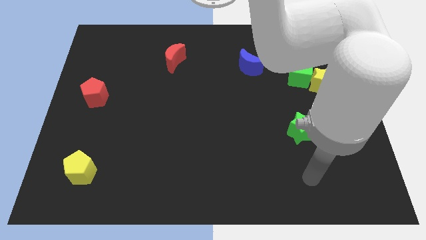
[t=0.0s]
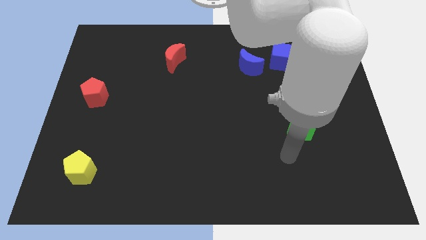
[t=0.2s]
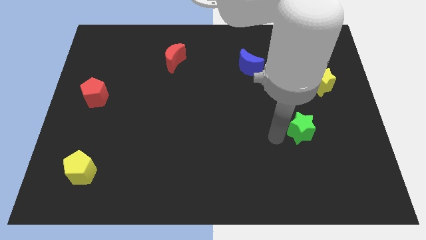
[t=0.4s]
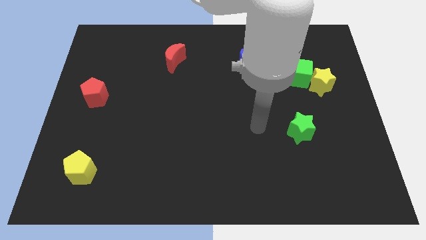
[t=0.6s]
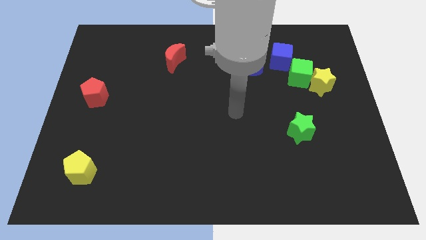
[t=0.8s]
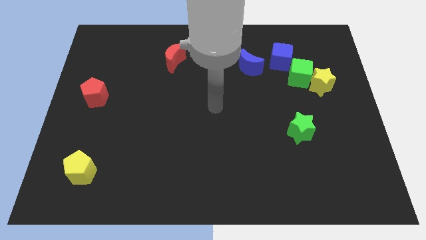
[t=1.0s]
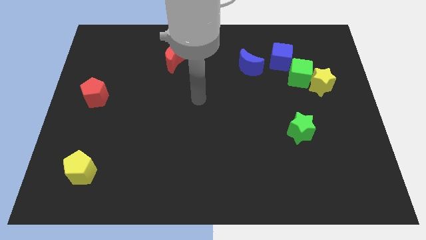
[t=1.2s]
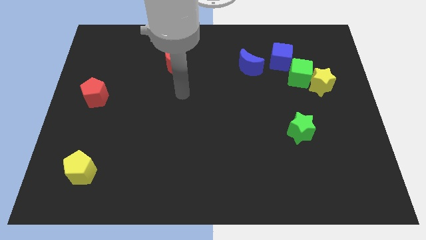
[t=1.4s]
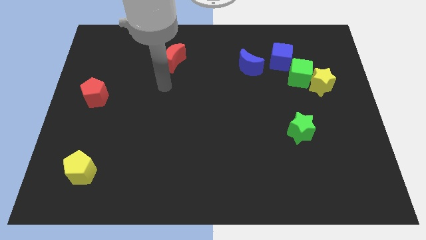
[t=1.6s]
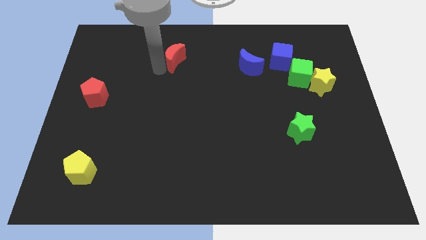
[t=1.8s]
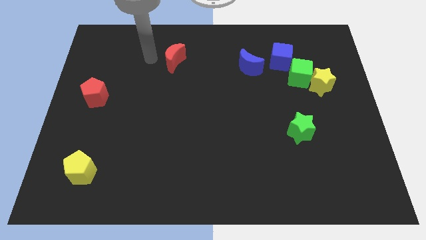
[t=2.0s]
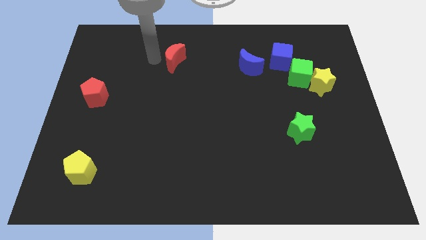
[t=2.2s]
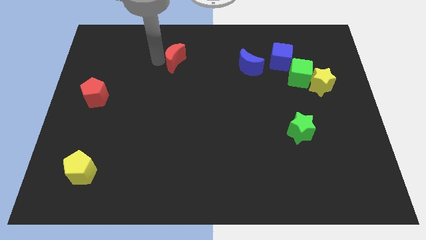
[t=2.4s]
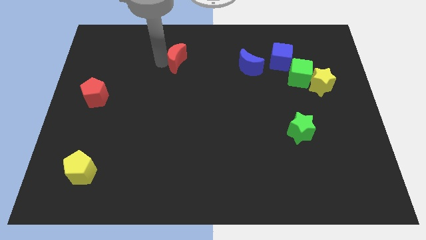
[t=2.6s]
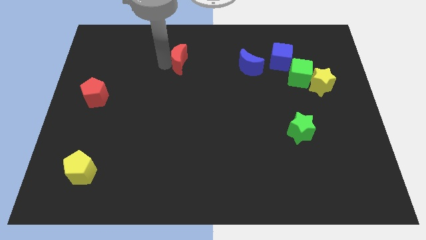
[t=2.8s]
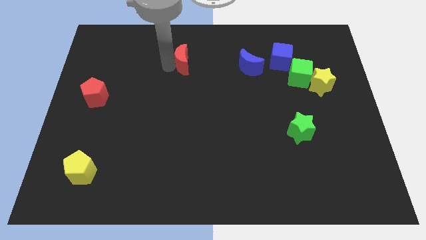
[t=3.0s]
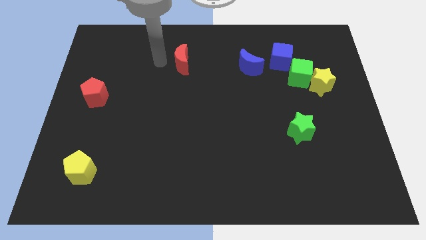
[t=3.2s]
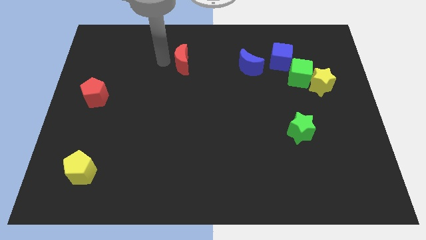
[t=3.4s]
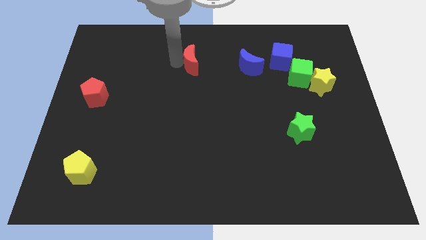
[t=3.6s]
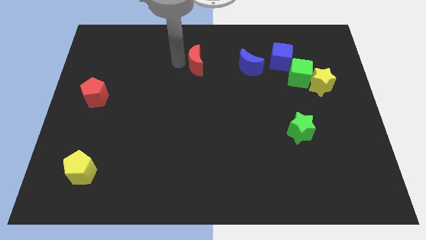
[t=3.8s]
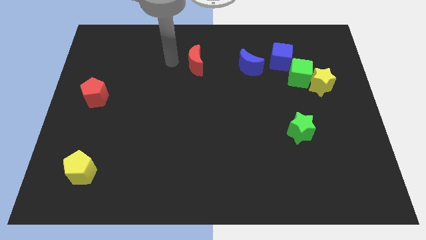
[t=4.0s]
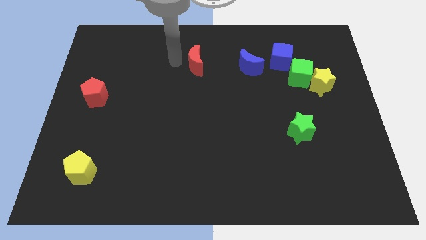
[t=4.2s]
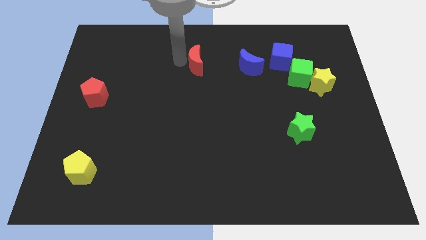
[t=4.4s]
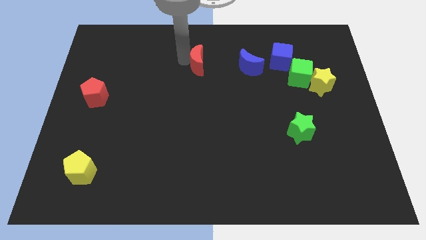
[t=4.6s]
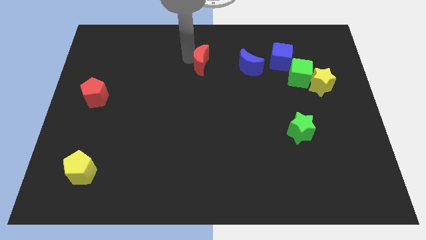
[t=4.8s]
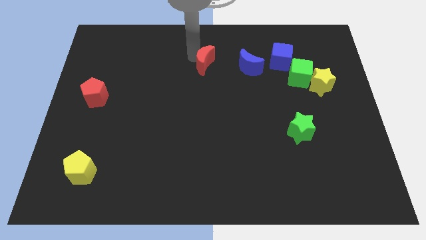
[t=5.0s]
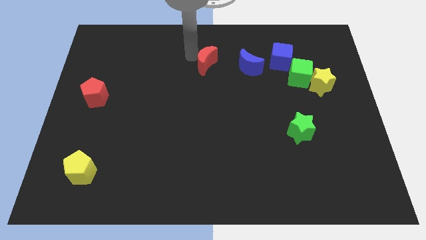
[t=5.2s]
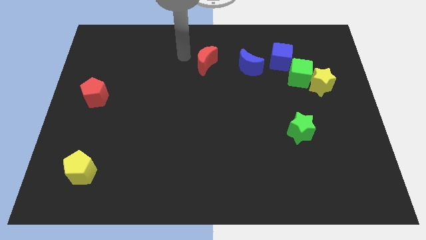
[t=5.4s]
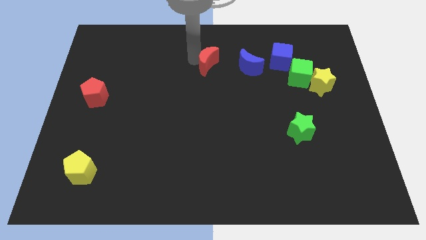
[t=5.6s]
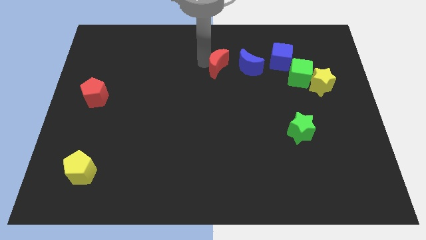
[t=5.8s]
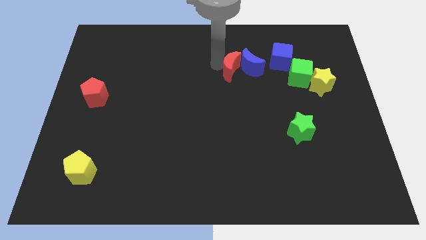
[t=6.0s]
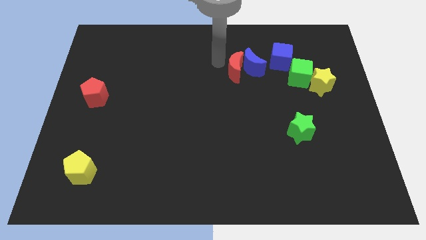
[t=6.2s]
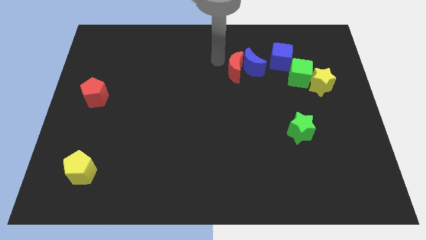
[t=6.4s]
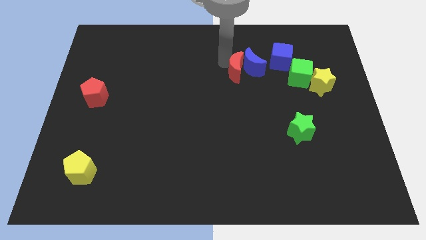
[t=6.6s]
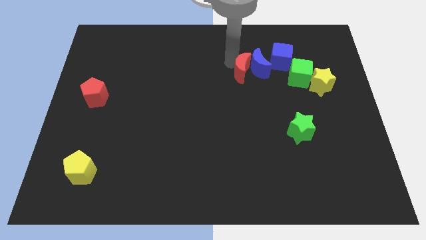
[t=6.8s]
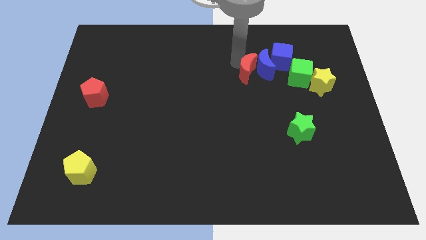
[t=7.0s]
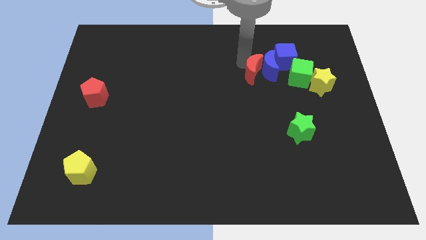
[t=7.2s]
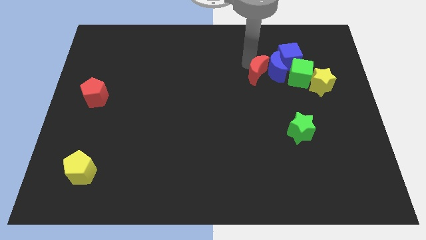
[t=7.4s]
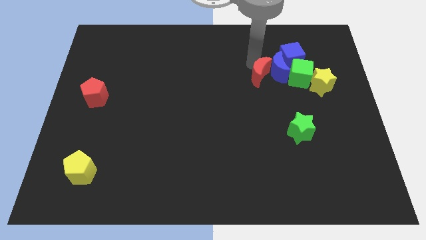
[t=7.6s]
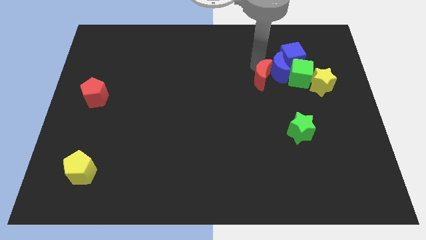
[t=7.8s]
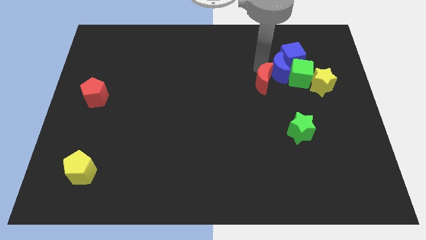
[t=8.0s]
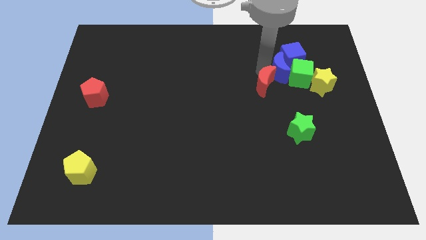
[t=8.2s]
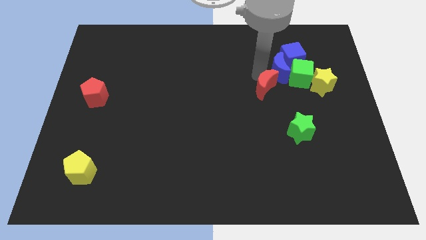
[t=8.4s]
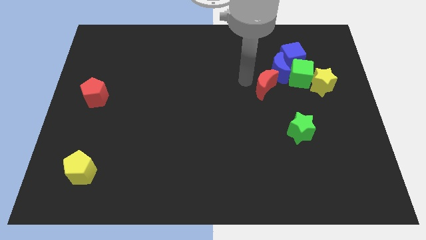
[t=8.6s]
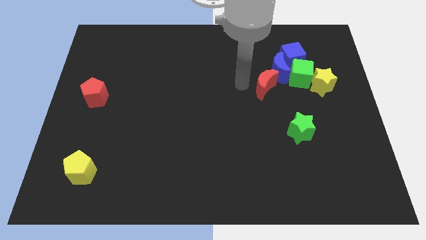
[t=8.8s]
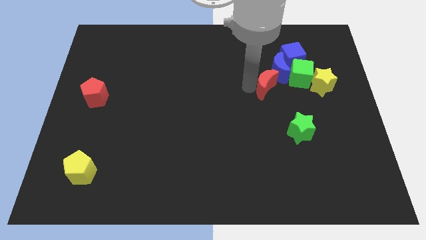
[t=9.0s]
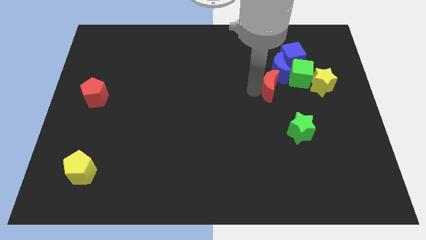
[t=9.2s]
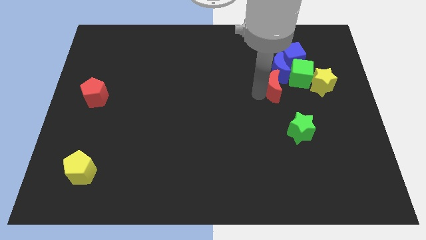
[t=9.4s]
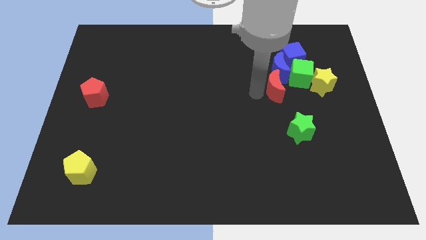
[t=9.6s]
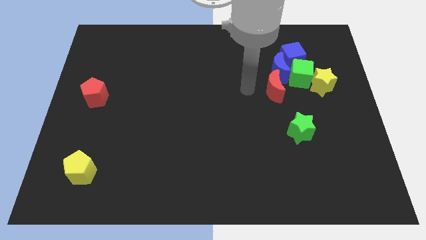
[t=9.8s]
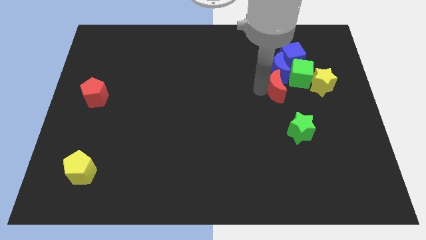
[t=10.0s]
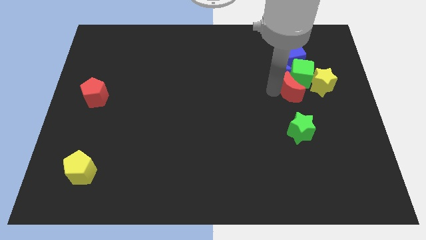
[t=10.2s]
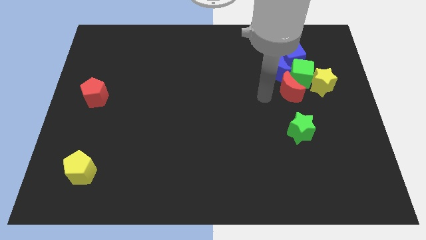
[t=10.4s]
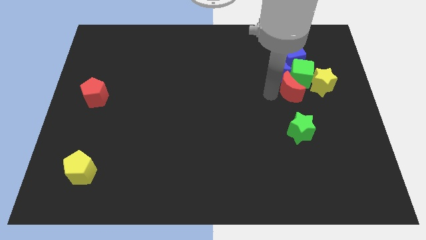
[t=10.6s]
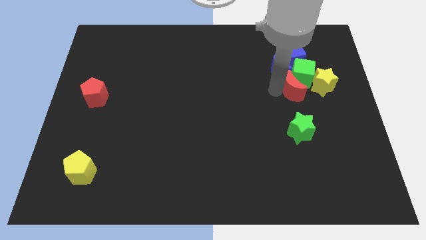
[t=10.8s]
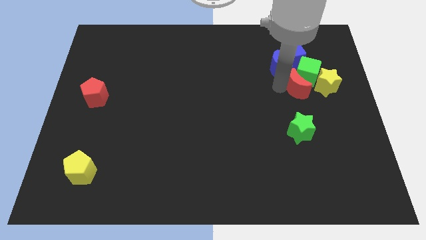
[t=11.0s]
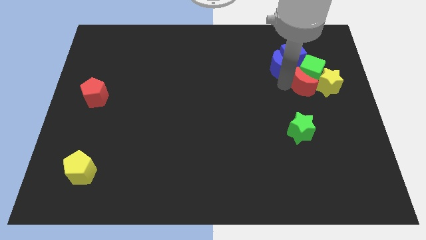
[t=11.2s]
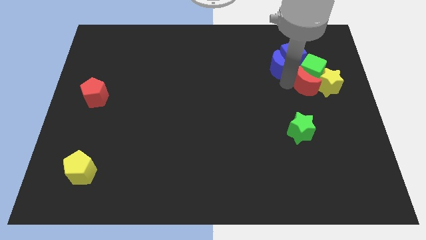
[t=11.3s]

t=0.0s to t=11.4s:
push the red moon next to the yellow star
